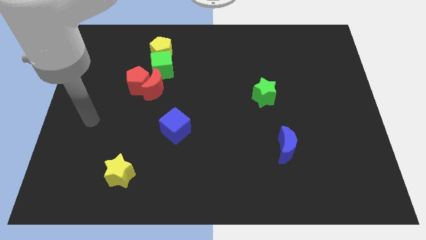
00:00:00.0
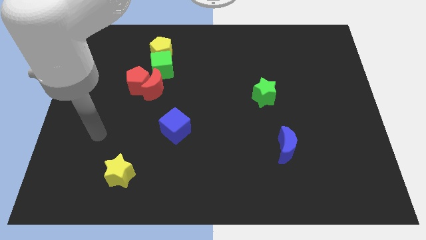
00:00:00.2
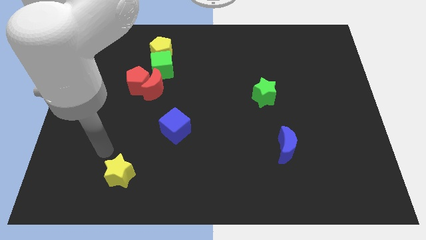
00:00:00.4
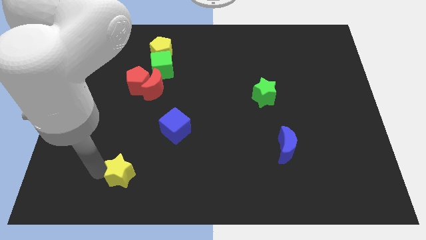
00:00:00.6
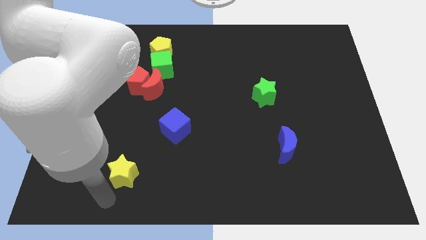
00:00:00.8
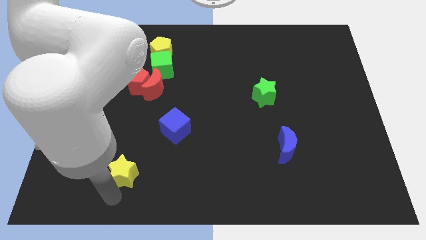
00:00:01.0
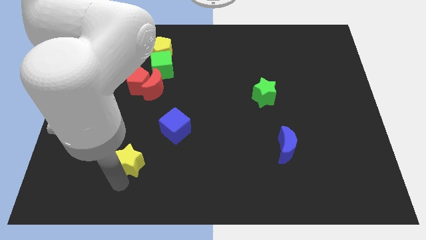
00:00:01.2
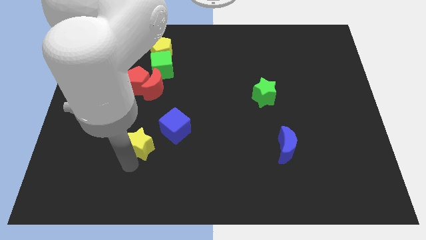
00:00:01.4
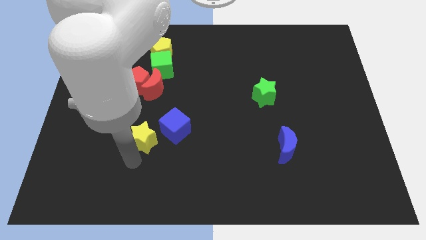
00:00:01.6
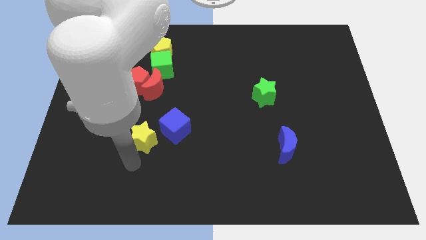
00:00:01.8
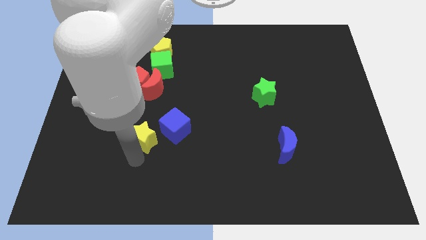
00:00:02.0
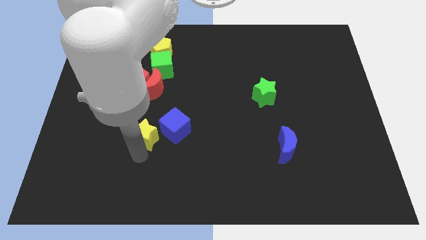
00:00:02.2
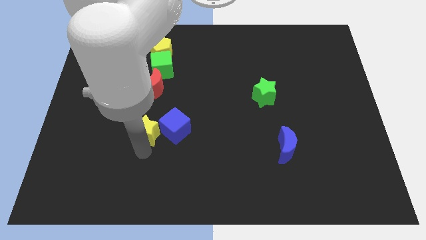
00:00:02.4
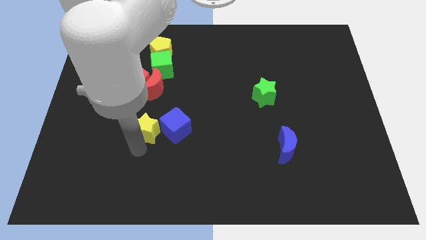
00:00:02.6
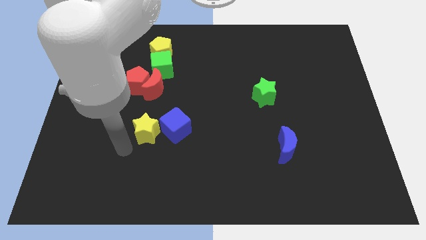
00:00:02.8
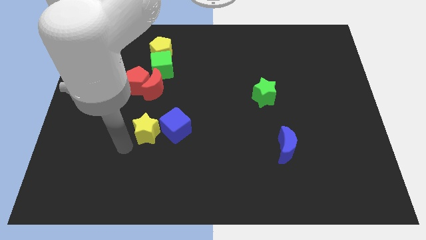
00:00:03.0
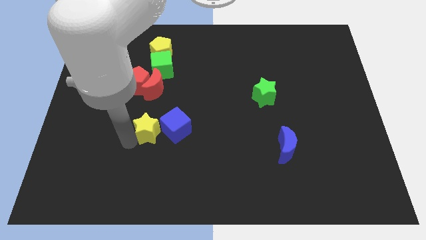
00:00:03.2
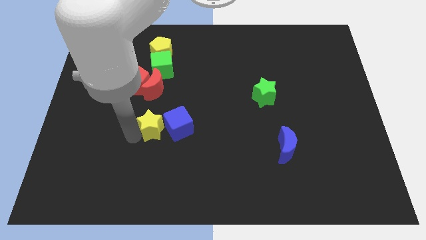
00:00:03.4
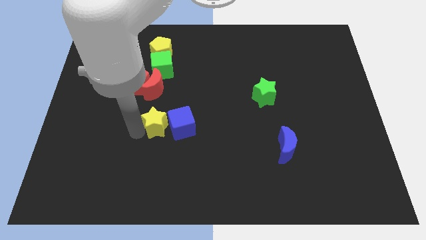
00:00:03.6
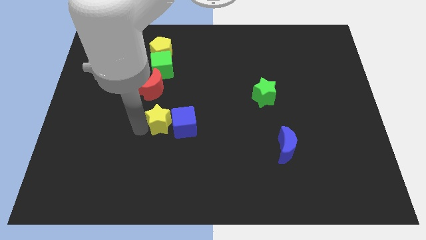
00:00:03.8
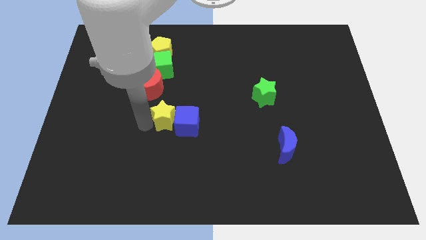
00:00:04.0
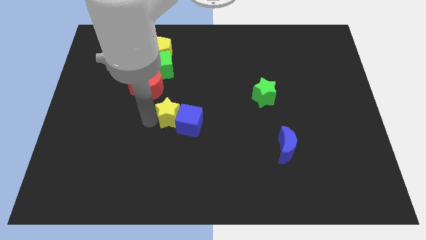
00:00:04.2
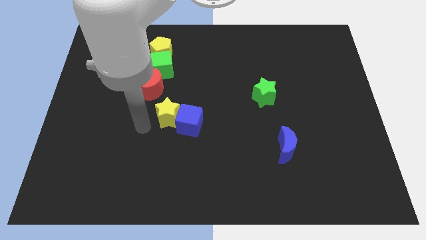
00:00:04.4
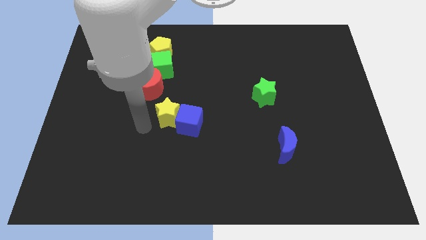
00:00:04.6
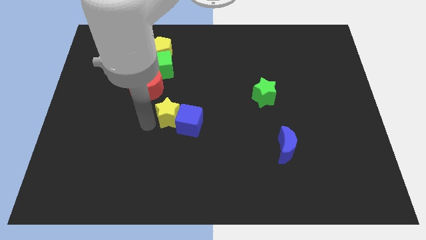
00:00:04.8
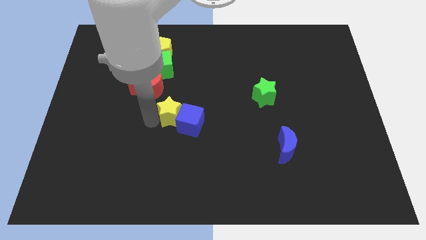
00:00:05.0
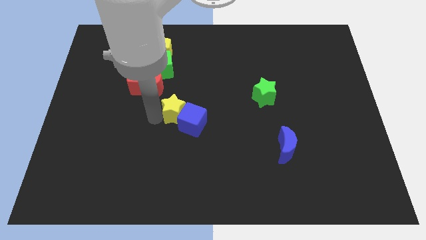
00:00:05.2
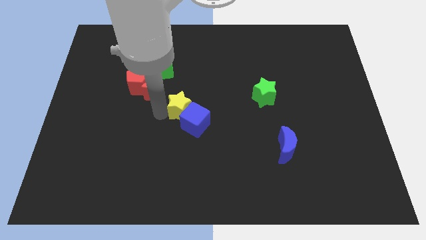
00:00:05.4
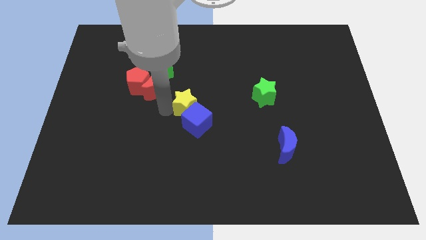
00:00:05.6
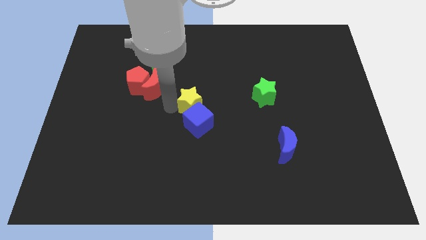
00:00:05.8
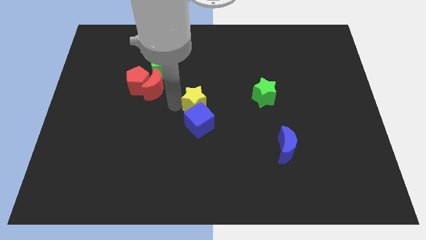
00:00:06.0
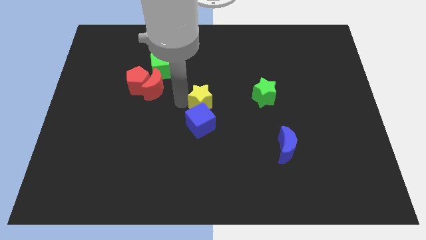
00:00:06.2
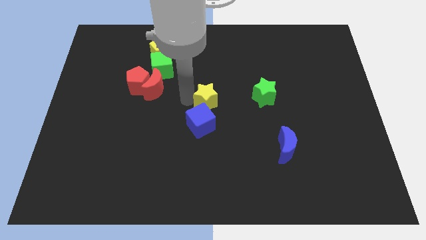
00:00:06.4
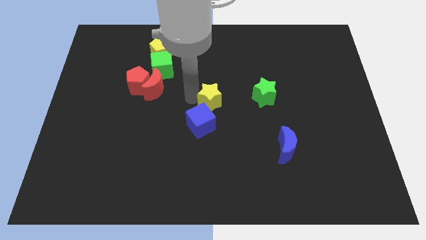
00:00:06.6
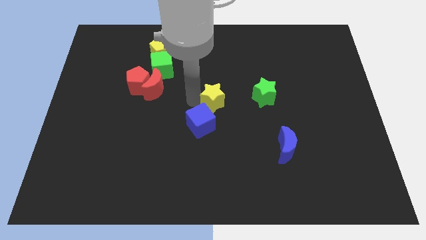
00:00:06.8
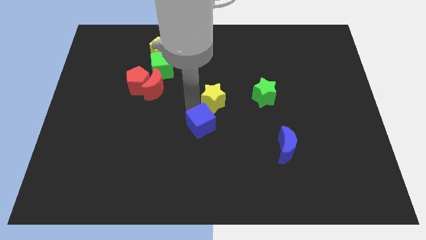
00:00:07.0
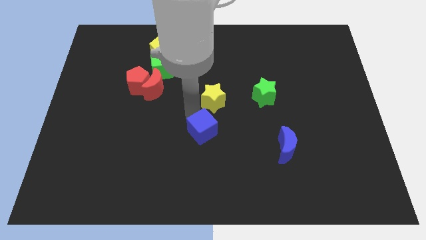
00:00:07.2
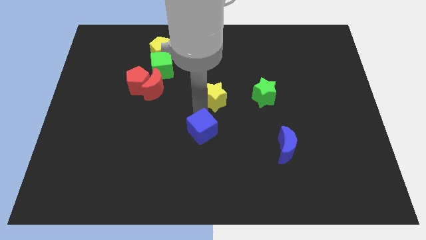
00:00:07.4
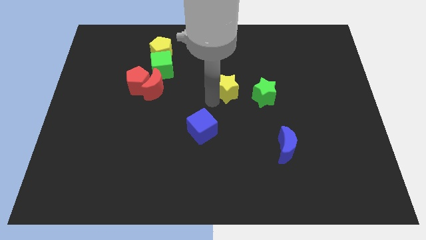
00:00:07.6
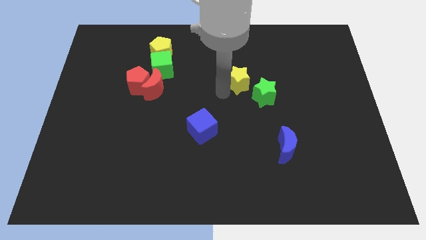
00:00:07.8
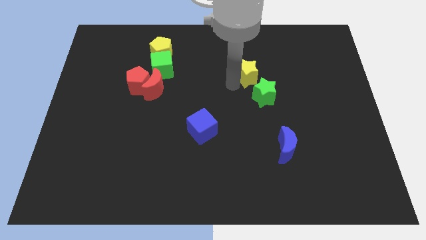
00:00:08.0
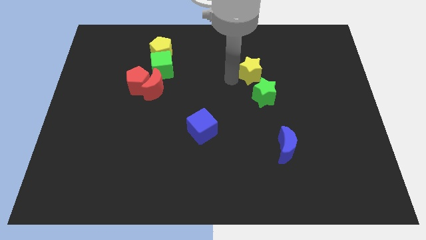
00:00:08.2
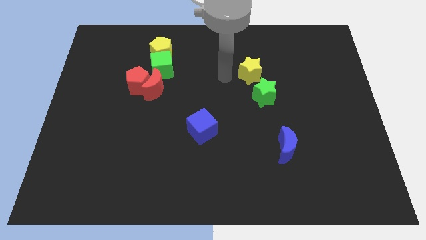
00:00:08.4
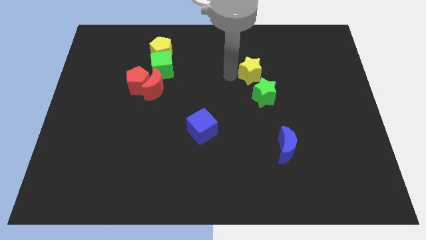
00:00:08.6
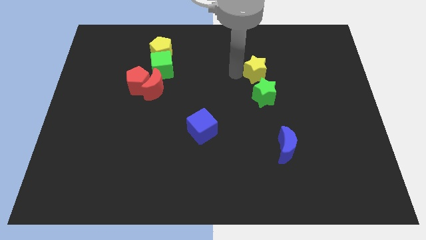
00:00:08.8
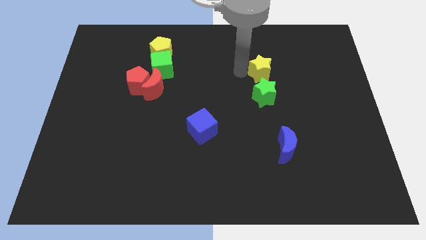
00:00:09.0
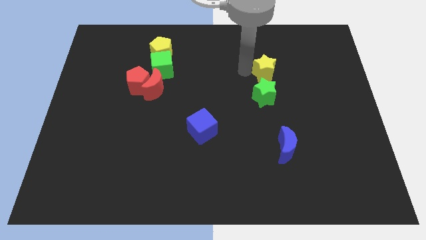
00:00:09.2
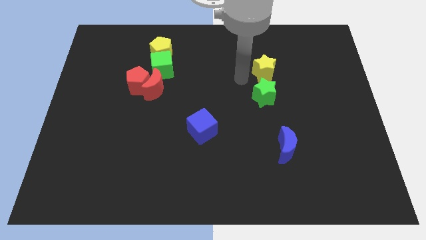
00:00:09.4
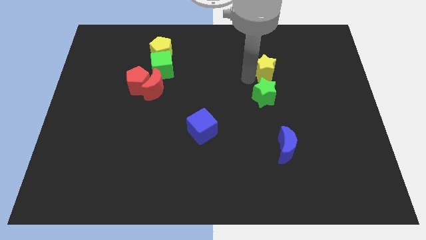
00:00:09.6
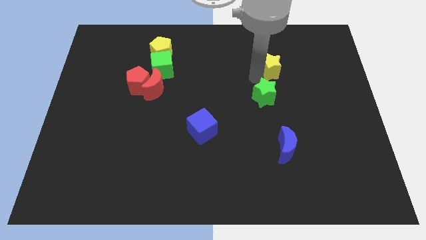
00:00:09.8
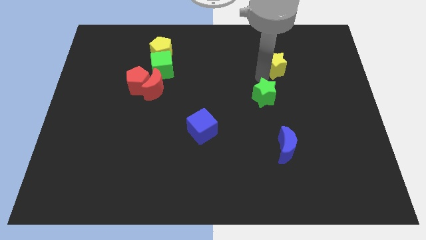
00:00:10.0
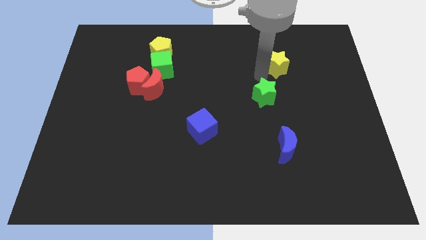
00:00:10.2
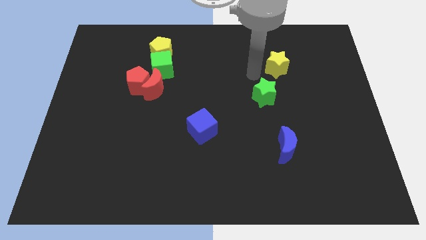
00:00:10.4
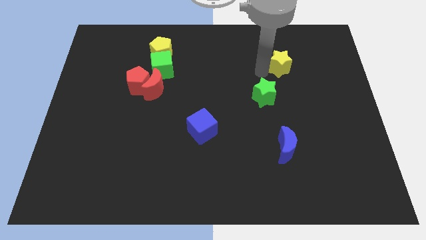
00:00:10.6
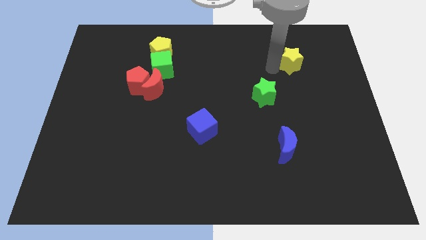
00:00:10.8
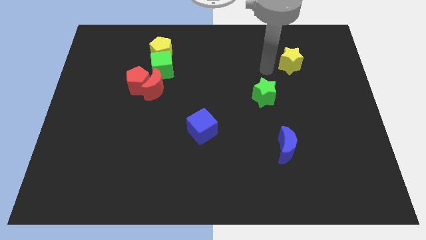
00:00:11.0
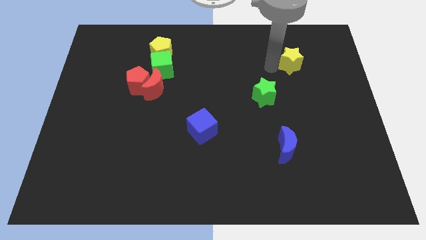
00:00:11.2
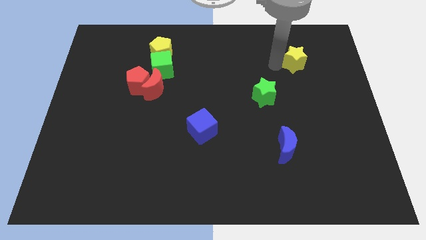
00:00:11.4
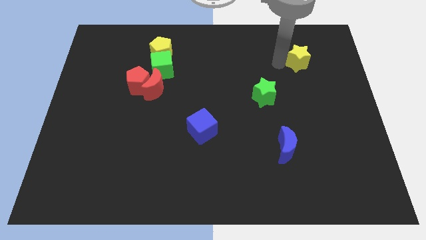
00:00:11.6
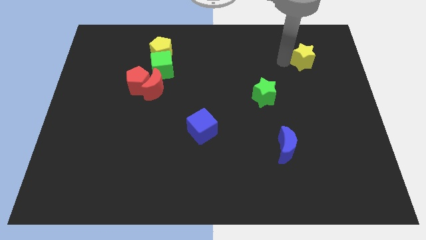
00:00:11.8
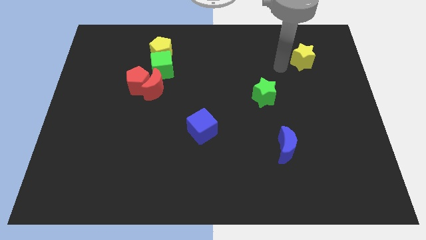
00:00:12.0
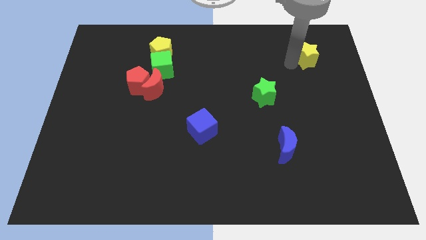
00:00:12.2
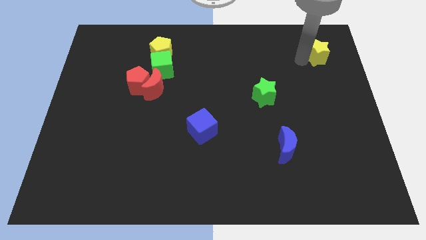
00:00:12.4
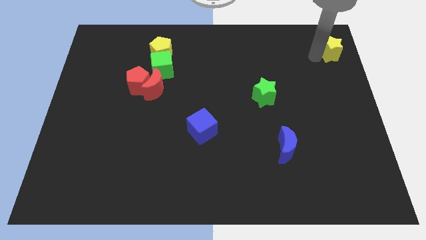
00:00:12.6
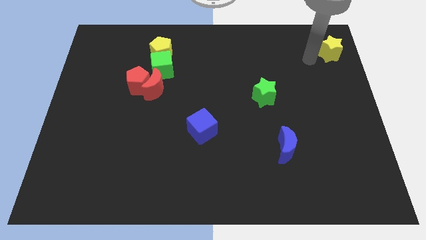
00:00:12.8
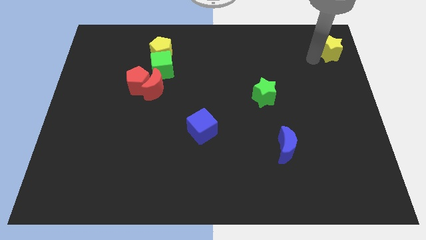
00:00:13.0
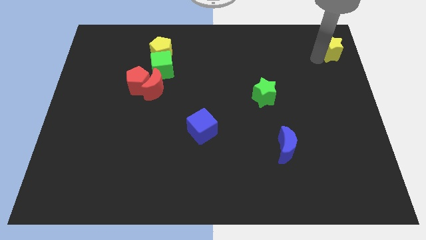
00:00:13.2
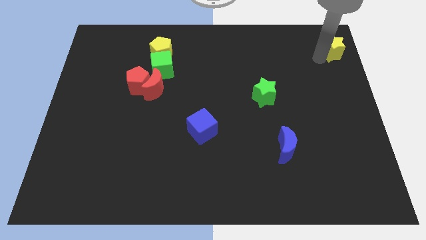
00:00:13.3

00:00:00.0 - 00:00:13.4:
slide the yellow star to the top right of the board

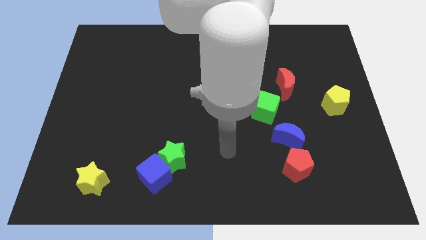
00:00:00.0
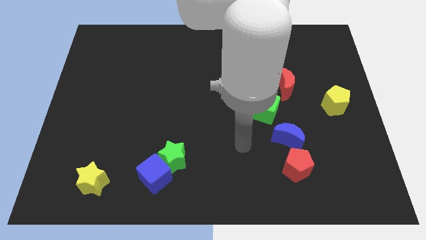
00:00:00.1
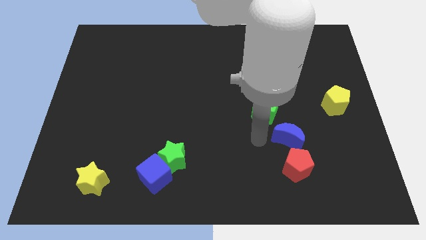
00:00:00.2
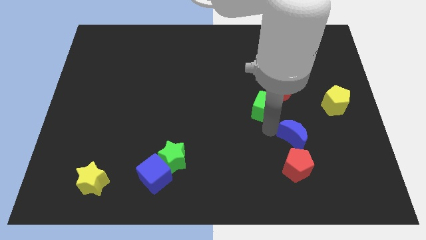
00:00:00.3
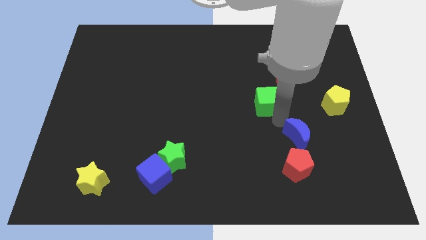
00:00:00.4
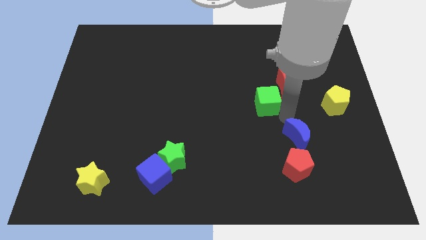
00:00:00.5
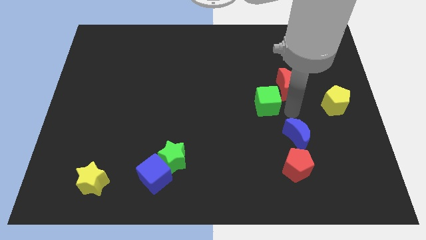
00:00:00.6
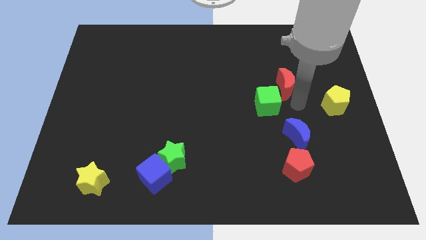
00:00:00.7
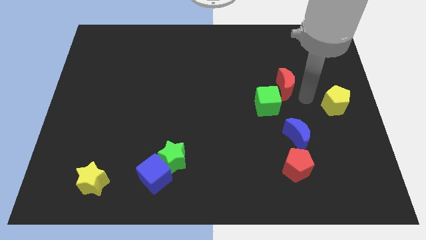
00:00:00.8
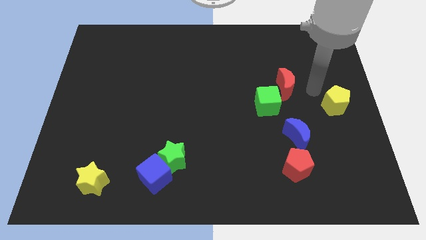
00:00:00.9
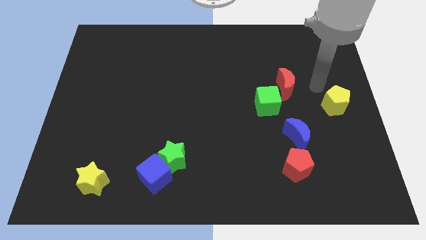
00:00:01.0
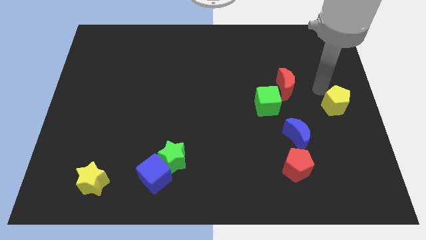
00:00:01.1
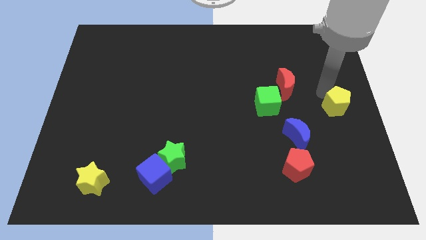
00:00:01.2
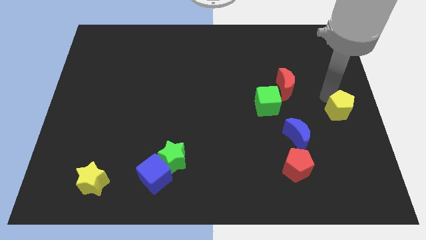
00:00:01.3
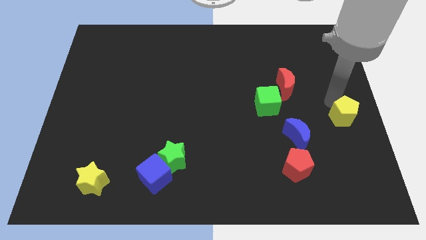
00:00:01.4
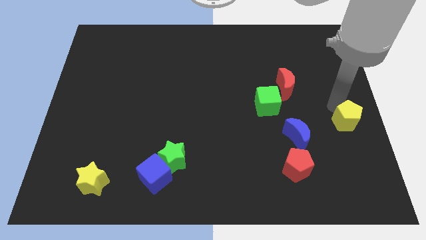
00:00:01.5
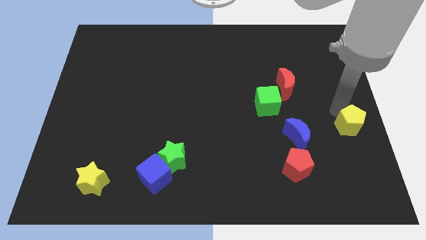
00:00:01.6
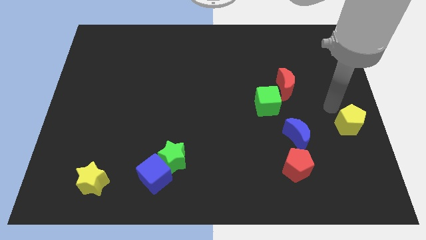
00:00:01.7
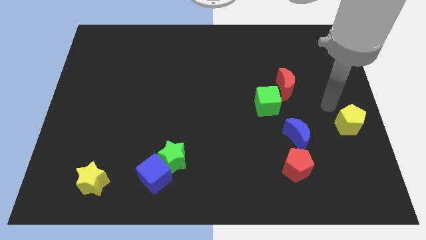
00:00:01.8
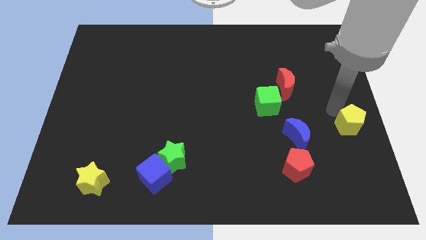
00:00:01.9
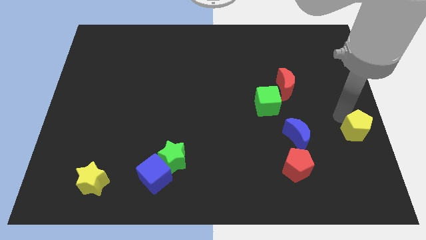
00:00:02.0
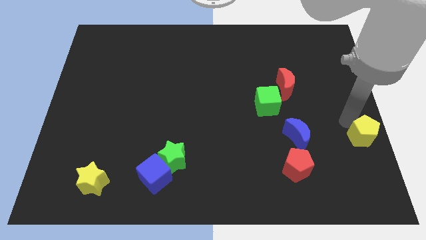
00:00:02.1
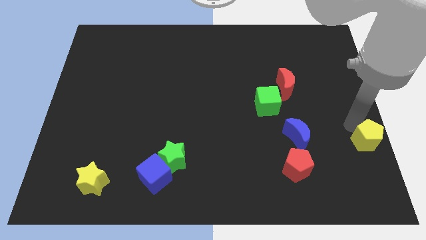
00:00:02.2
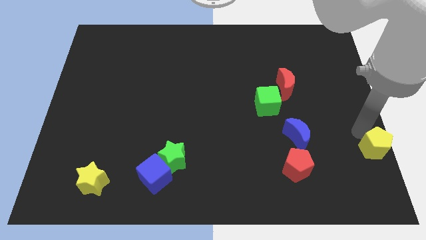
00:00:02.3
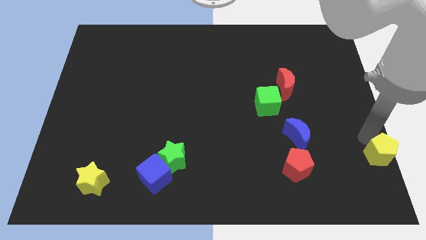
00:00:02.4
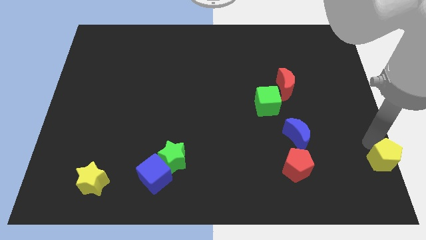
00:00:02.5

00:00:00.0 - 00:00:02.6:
move the yellow pentagon to the lower right corner
